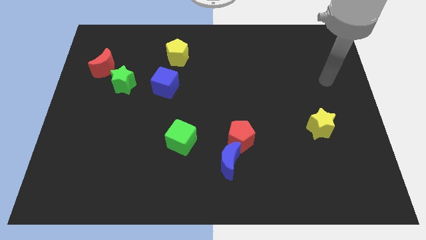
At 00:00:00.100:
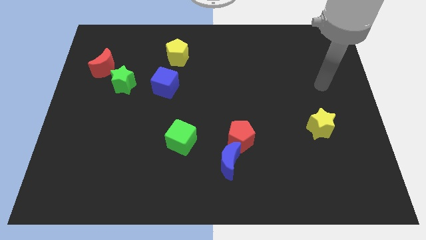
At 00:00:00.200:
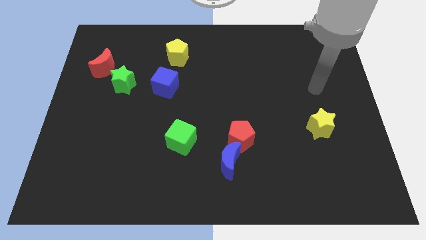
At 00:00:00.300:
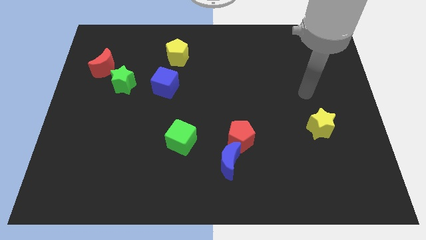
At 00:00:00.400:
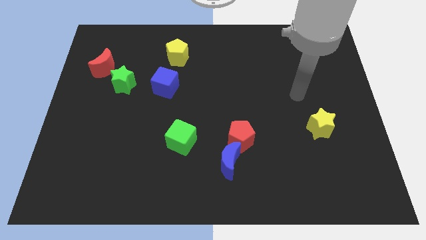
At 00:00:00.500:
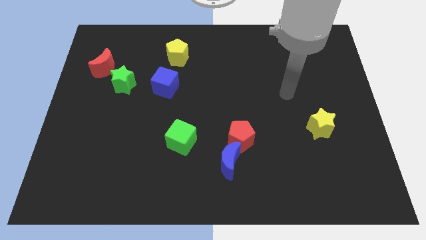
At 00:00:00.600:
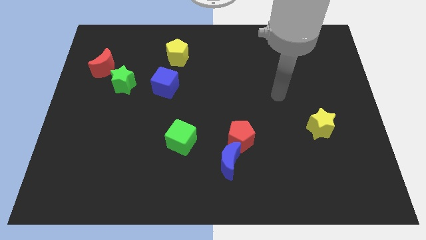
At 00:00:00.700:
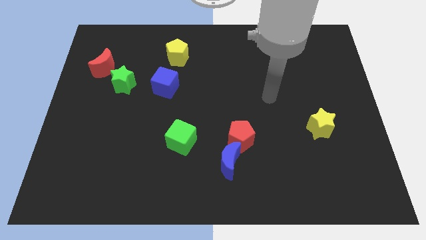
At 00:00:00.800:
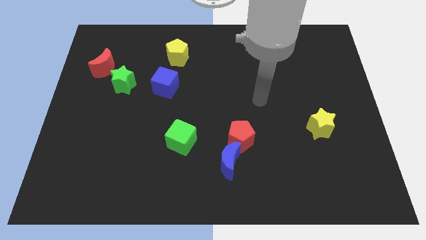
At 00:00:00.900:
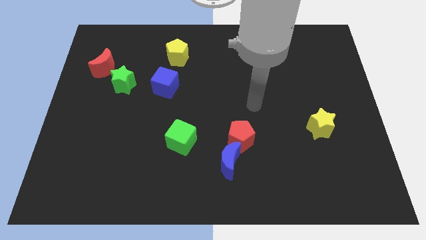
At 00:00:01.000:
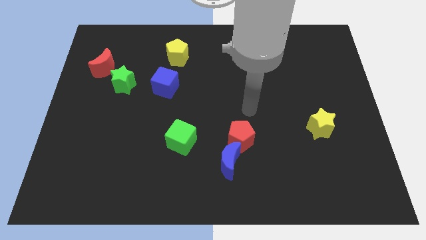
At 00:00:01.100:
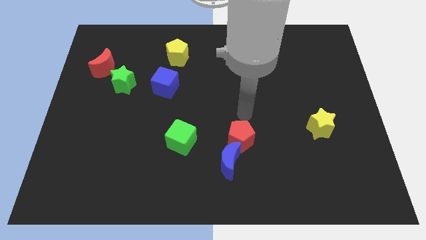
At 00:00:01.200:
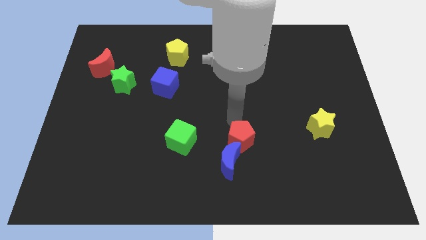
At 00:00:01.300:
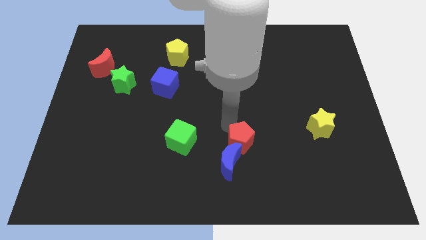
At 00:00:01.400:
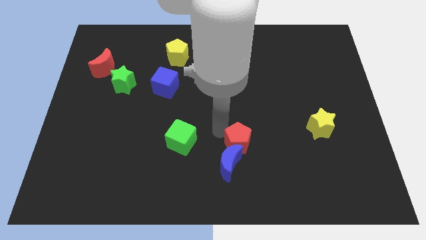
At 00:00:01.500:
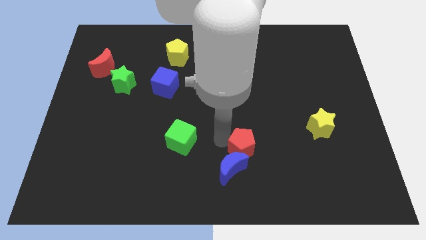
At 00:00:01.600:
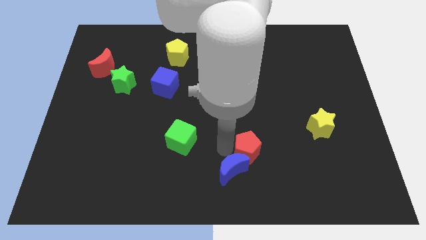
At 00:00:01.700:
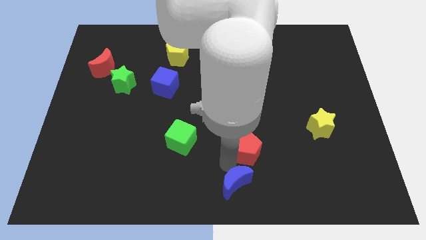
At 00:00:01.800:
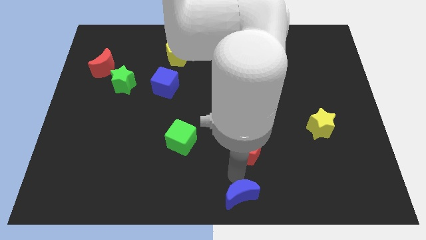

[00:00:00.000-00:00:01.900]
separate the red pentagon from the blue moon

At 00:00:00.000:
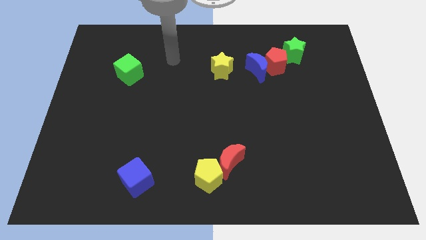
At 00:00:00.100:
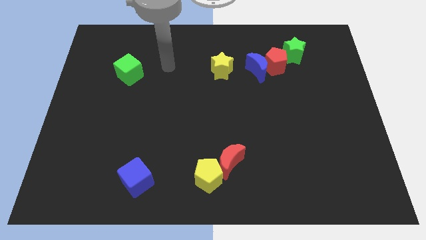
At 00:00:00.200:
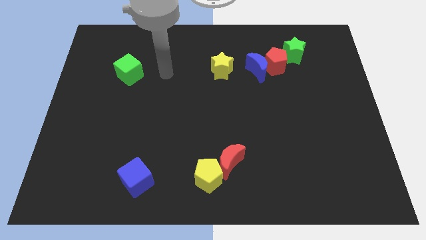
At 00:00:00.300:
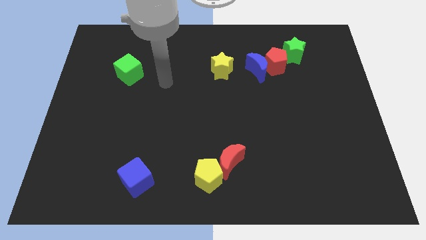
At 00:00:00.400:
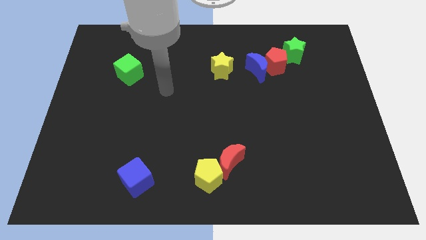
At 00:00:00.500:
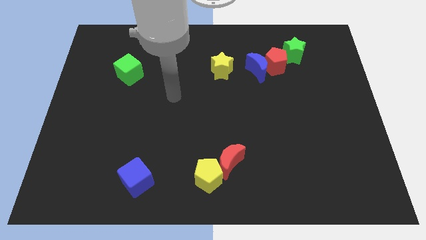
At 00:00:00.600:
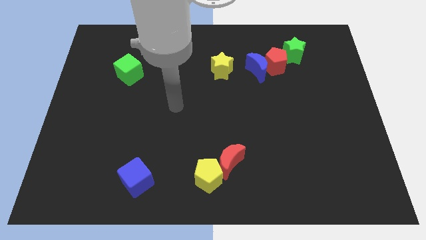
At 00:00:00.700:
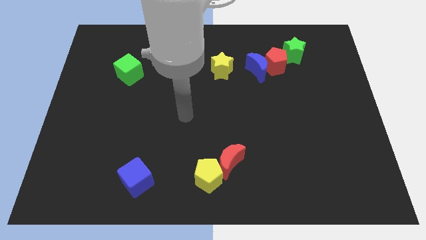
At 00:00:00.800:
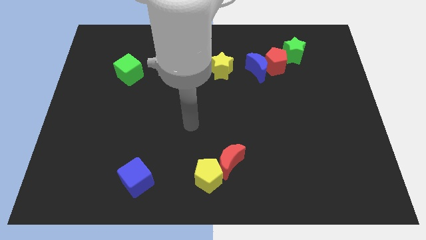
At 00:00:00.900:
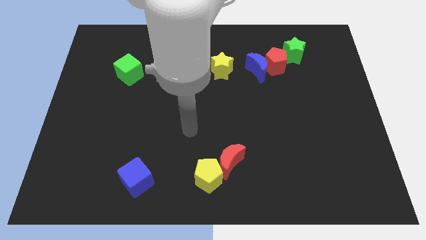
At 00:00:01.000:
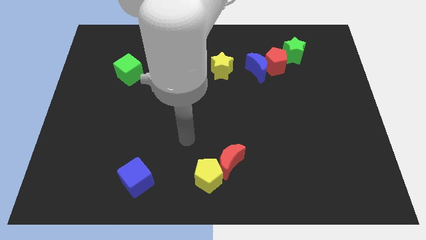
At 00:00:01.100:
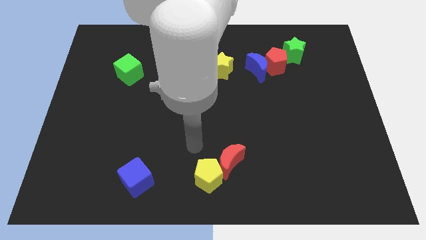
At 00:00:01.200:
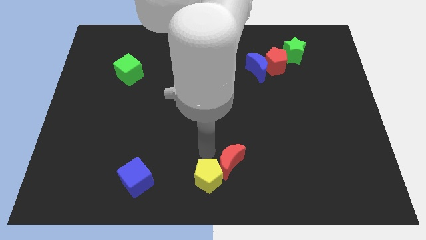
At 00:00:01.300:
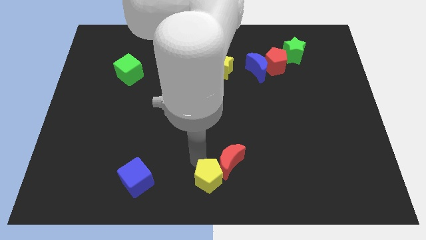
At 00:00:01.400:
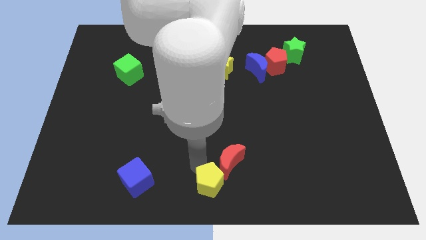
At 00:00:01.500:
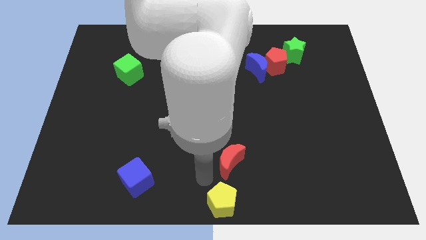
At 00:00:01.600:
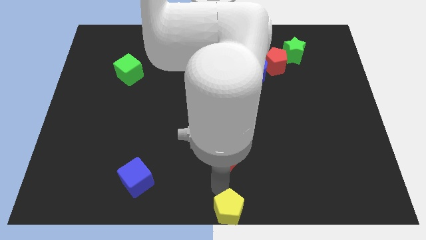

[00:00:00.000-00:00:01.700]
separate the red moon from the yellow pentagon

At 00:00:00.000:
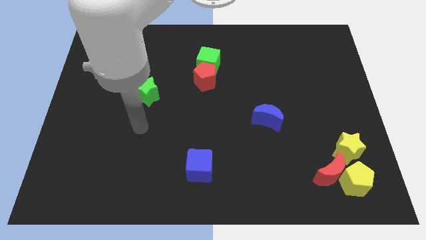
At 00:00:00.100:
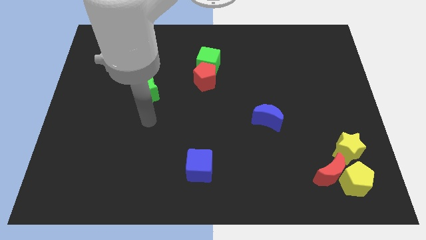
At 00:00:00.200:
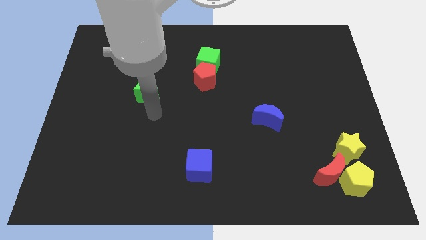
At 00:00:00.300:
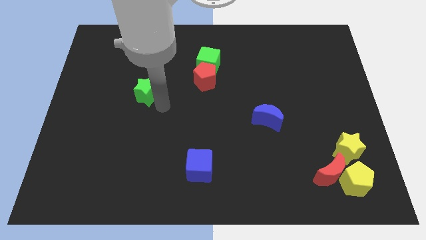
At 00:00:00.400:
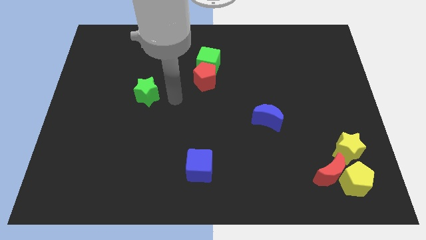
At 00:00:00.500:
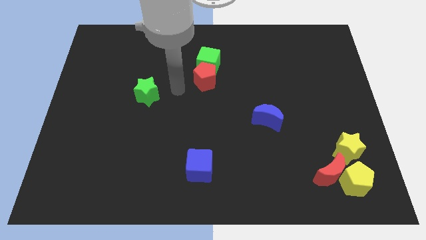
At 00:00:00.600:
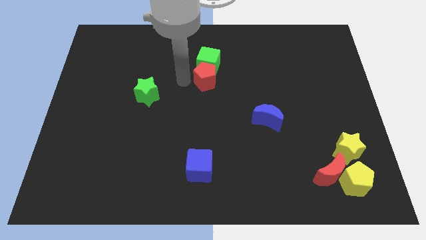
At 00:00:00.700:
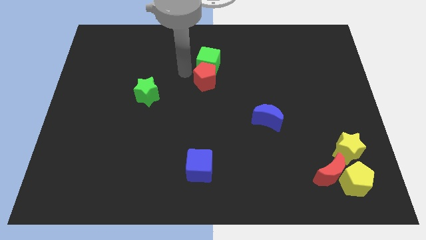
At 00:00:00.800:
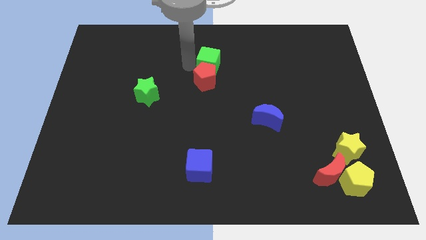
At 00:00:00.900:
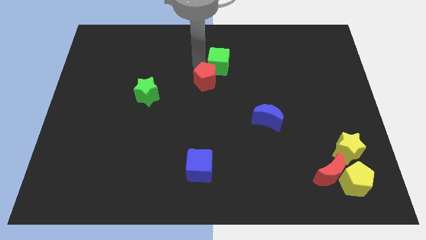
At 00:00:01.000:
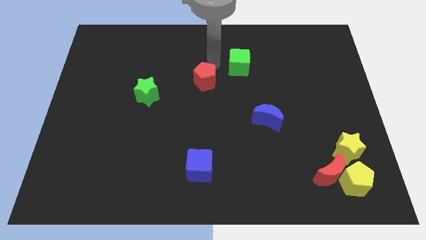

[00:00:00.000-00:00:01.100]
pull the red pentagon apart from the green cube

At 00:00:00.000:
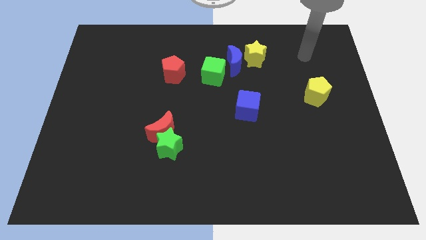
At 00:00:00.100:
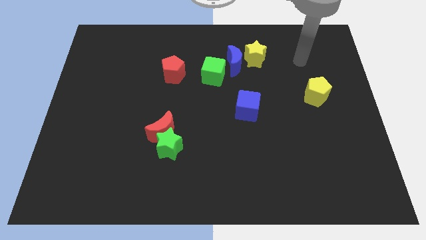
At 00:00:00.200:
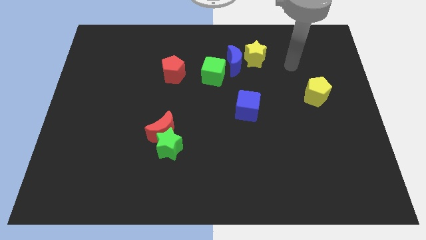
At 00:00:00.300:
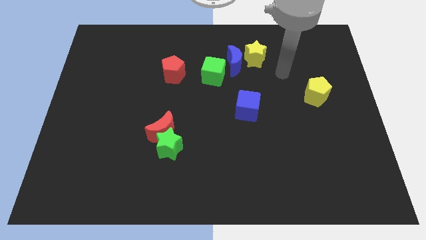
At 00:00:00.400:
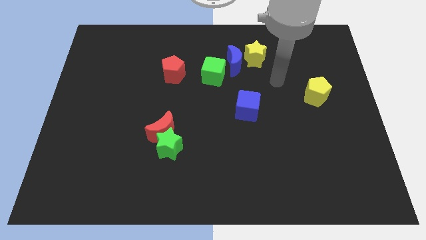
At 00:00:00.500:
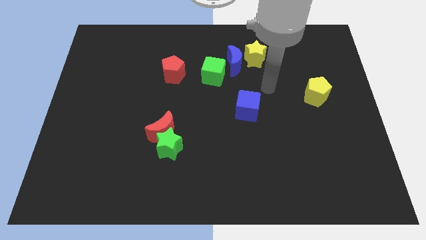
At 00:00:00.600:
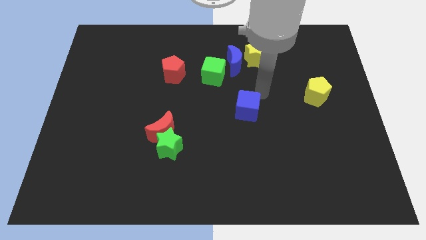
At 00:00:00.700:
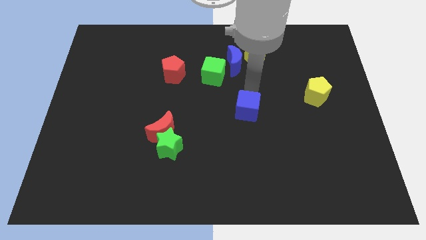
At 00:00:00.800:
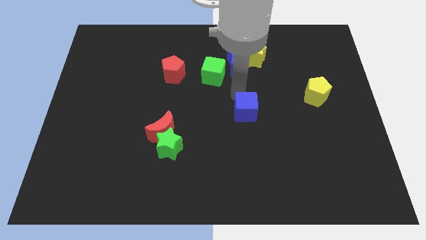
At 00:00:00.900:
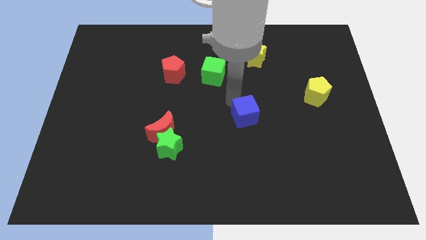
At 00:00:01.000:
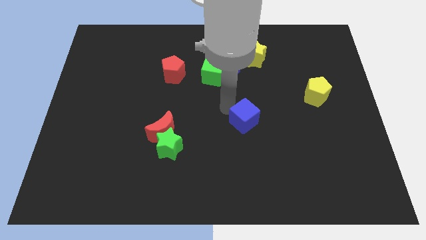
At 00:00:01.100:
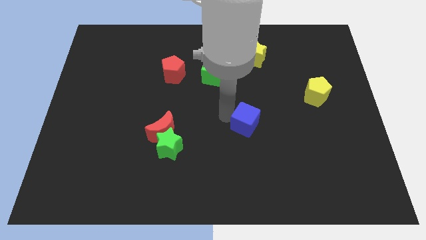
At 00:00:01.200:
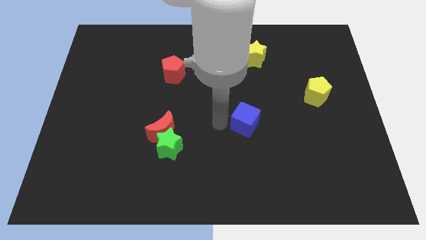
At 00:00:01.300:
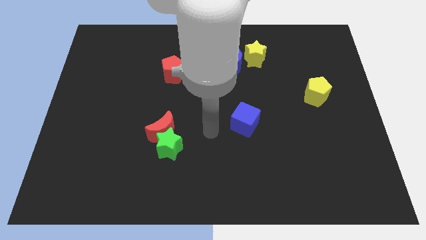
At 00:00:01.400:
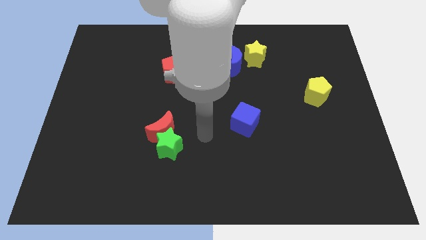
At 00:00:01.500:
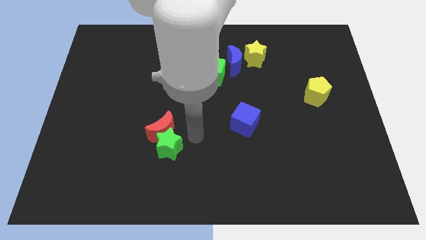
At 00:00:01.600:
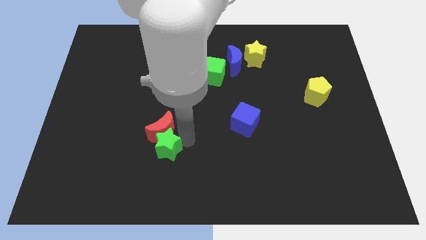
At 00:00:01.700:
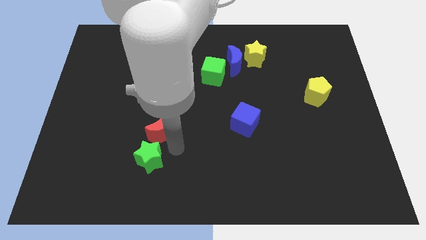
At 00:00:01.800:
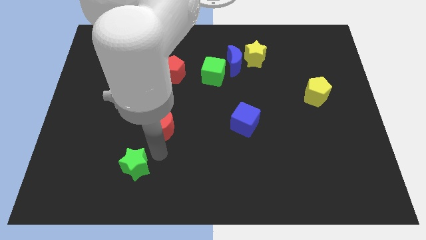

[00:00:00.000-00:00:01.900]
move the red moon away from the green star

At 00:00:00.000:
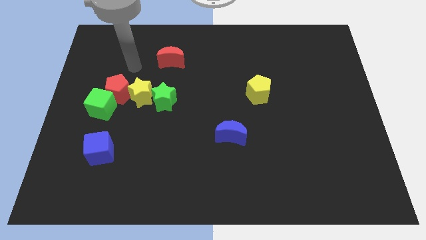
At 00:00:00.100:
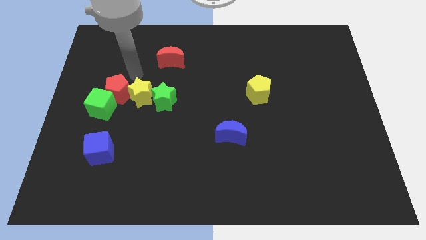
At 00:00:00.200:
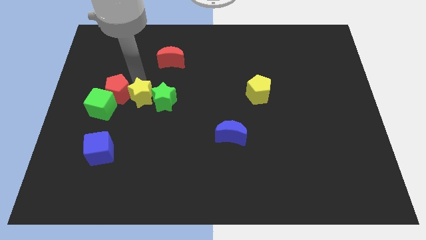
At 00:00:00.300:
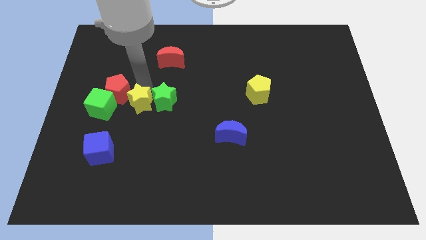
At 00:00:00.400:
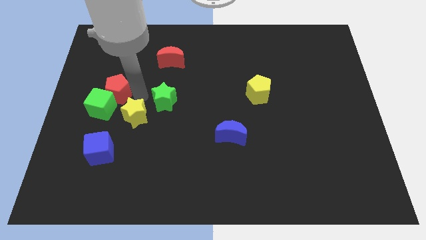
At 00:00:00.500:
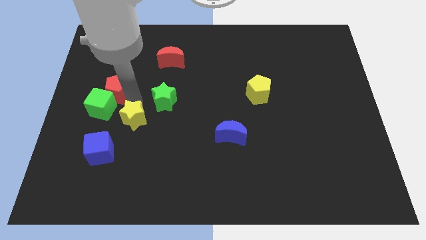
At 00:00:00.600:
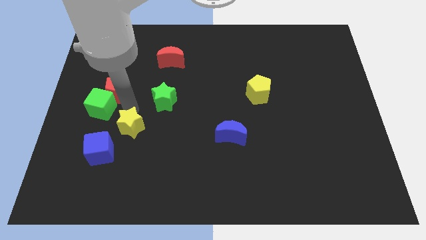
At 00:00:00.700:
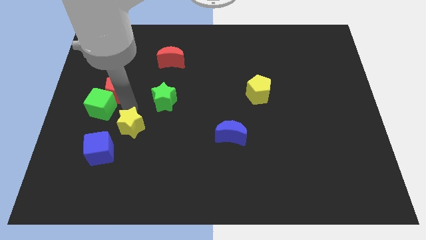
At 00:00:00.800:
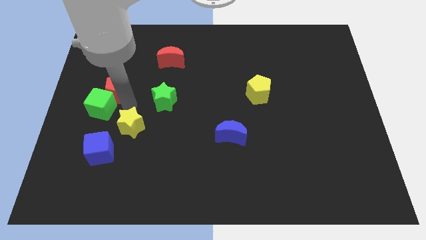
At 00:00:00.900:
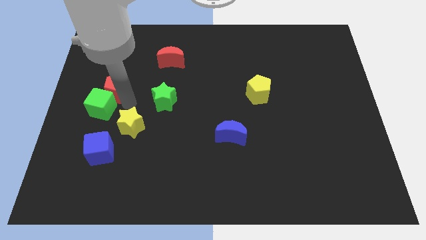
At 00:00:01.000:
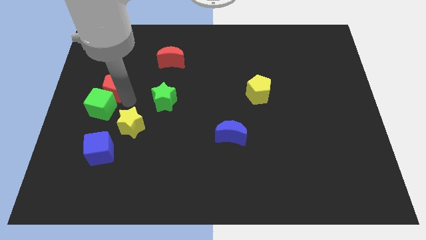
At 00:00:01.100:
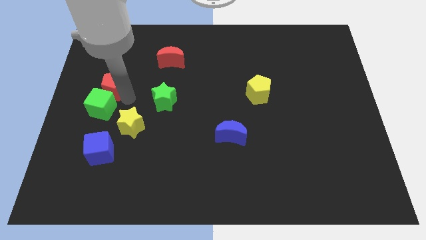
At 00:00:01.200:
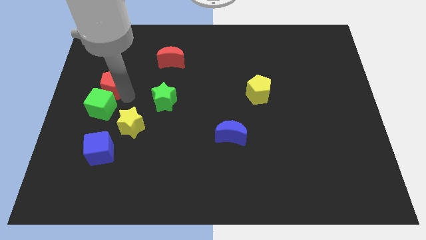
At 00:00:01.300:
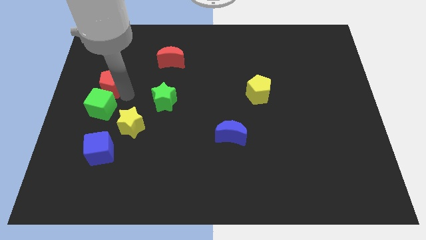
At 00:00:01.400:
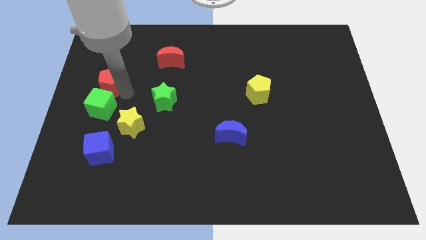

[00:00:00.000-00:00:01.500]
move the red pentagon away from the green cube and yellow star

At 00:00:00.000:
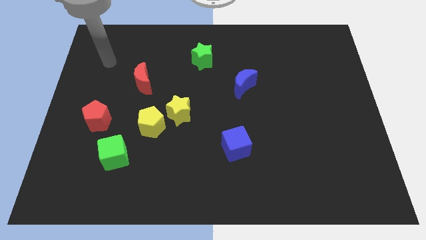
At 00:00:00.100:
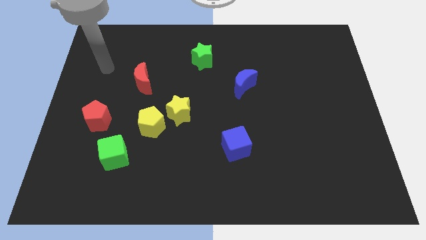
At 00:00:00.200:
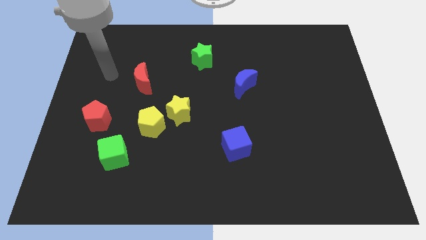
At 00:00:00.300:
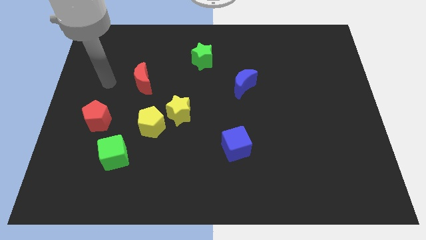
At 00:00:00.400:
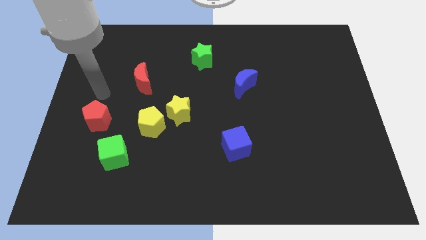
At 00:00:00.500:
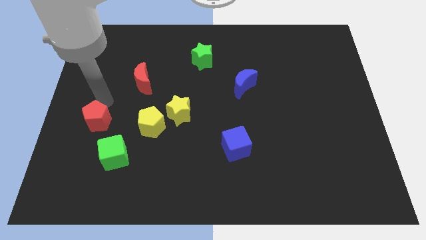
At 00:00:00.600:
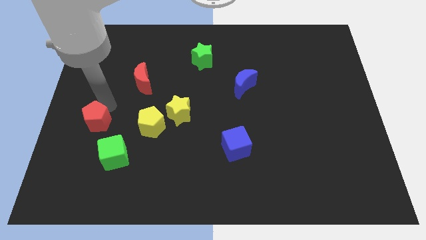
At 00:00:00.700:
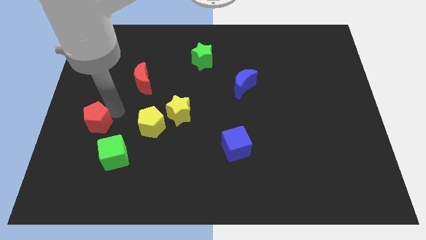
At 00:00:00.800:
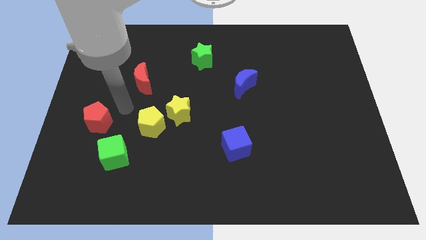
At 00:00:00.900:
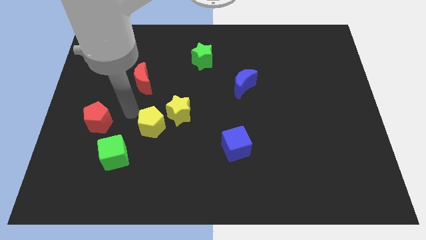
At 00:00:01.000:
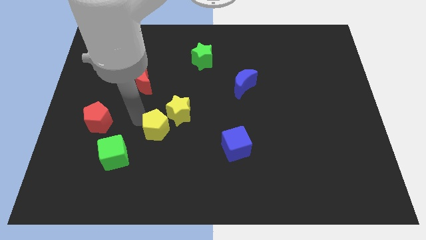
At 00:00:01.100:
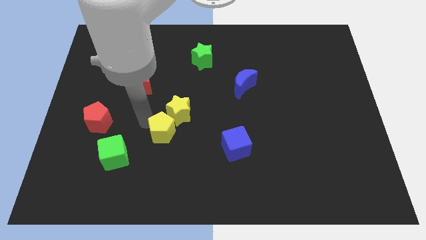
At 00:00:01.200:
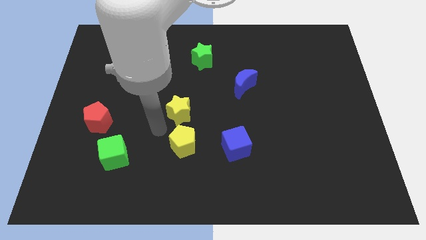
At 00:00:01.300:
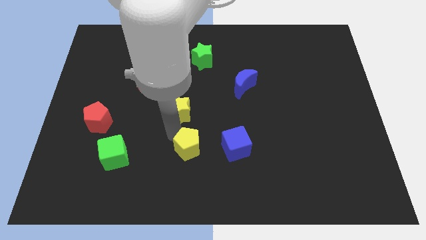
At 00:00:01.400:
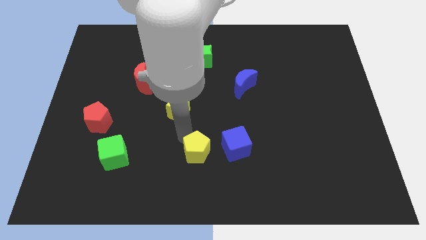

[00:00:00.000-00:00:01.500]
separate the yellow star from the yellow pentagon